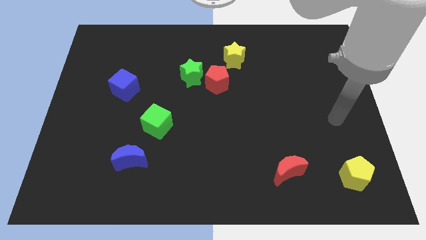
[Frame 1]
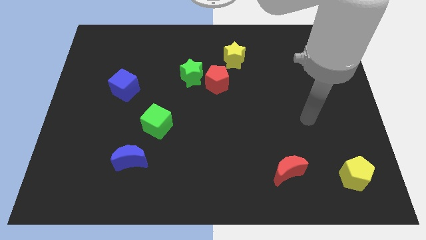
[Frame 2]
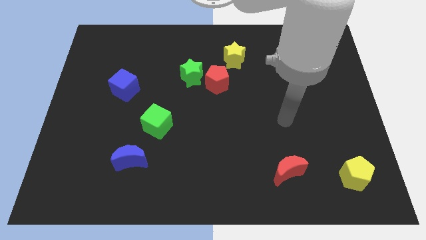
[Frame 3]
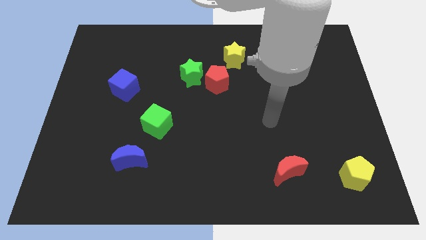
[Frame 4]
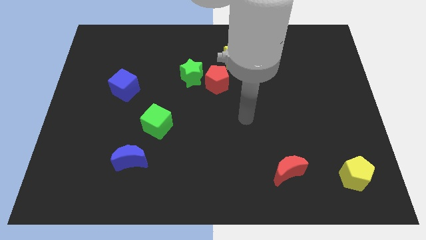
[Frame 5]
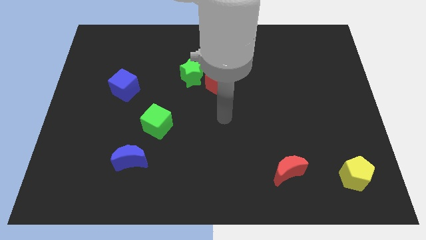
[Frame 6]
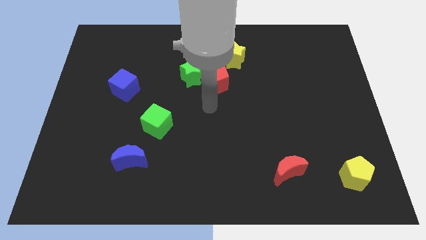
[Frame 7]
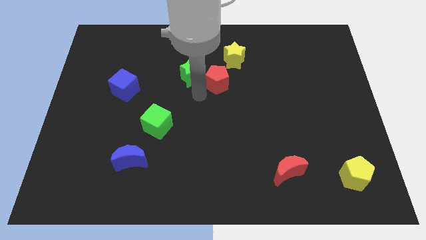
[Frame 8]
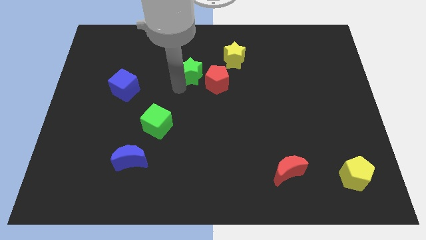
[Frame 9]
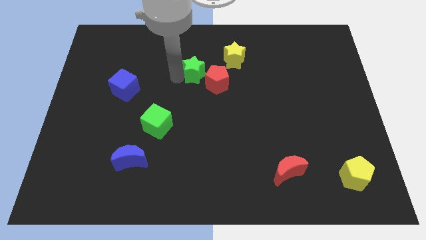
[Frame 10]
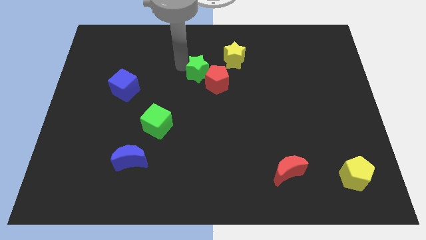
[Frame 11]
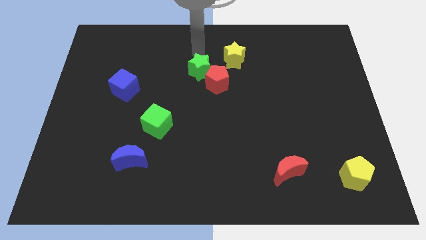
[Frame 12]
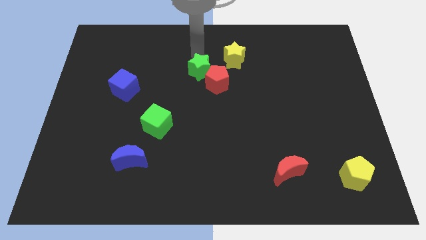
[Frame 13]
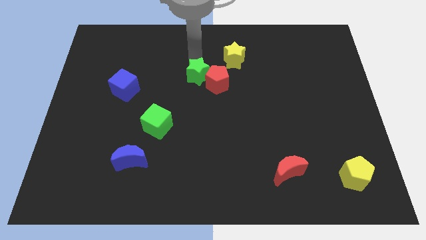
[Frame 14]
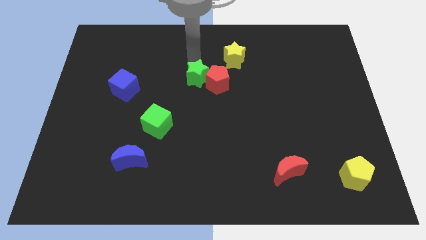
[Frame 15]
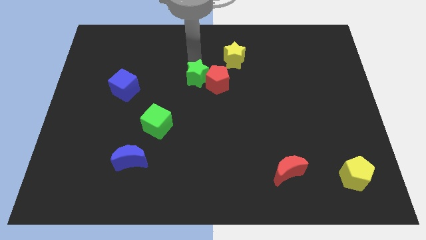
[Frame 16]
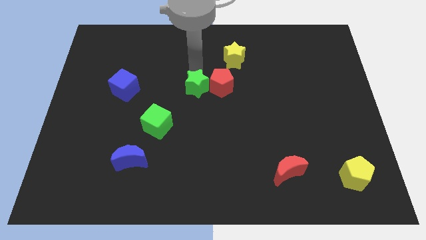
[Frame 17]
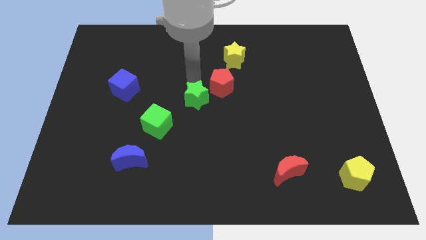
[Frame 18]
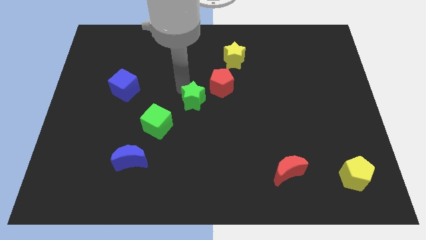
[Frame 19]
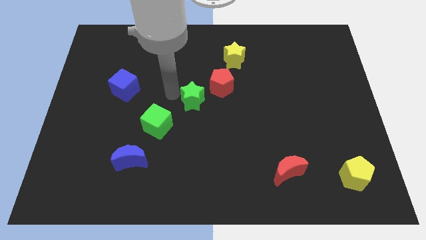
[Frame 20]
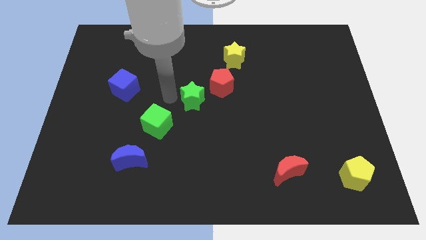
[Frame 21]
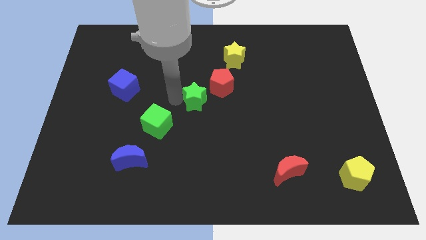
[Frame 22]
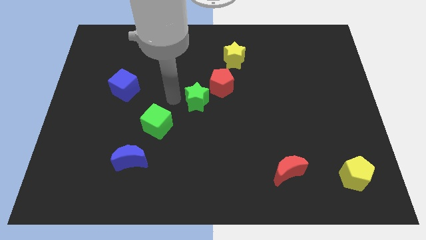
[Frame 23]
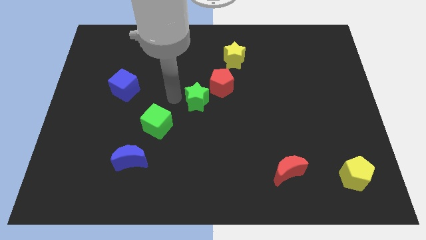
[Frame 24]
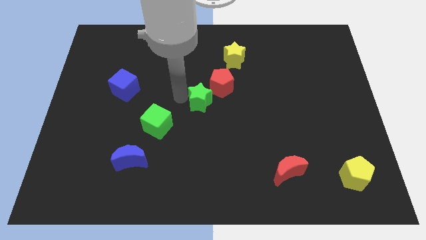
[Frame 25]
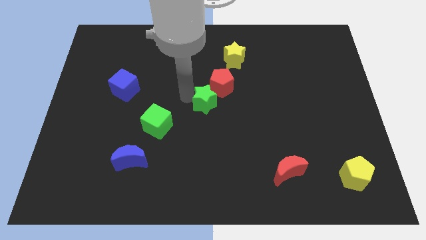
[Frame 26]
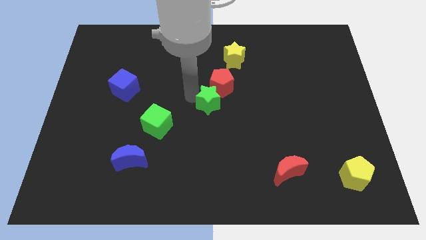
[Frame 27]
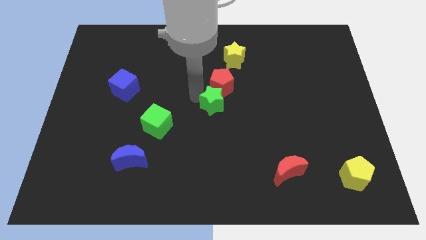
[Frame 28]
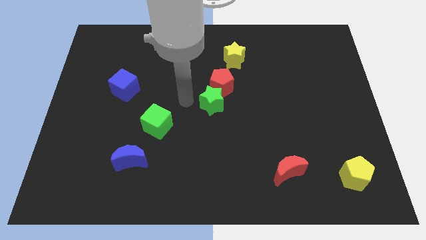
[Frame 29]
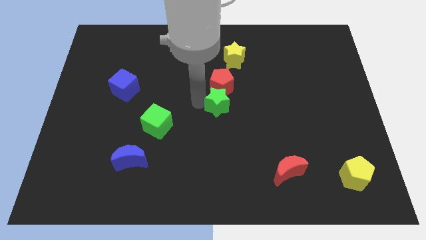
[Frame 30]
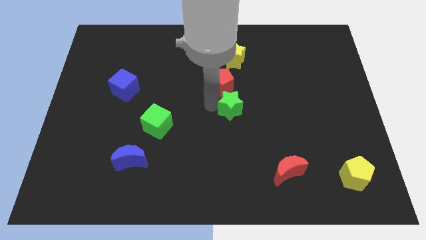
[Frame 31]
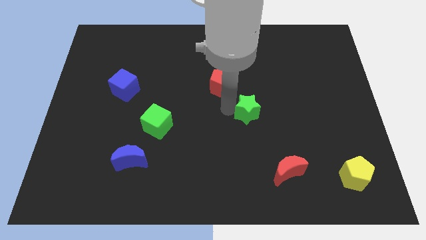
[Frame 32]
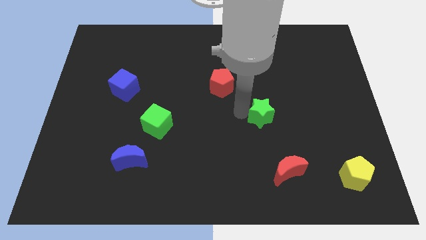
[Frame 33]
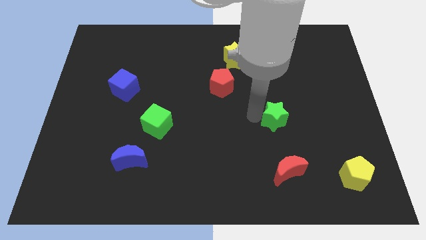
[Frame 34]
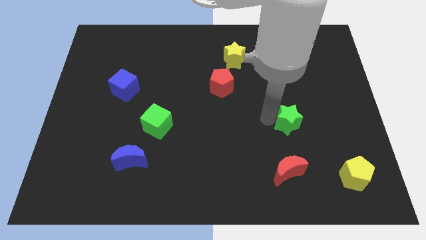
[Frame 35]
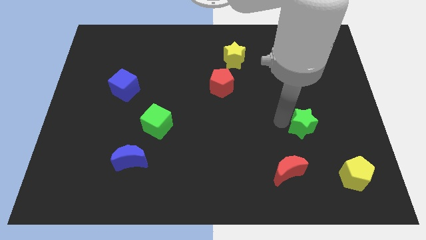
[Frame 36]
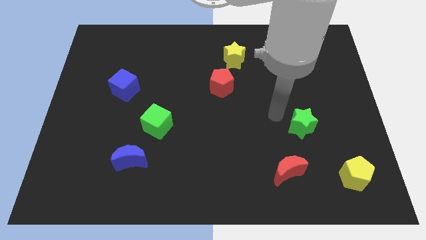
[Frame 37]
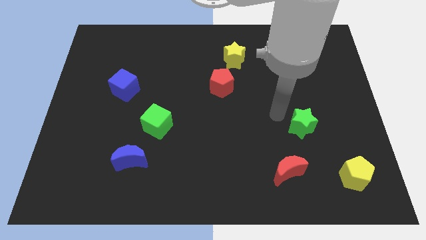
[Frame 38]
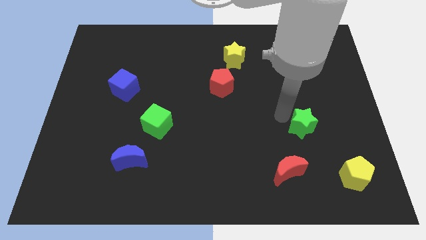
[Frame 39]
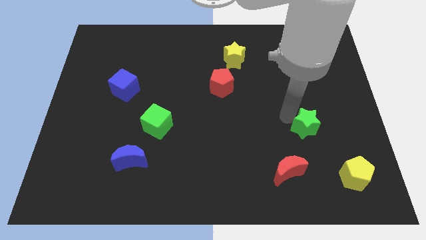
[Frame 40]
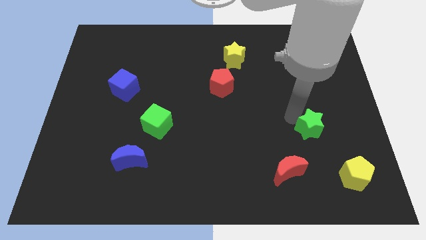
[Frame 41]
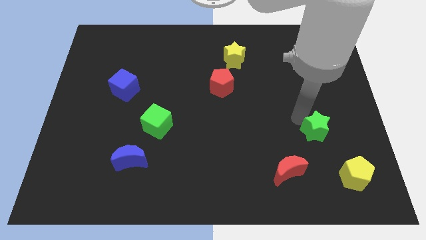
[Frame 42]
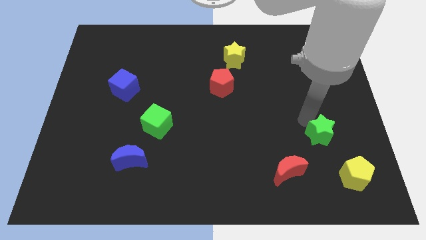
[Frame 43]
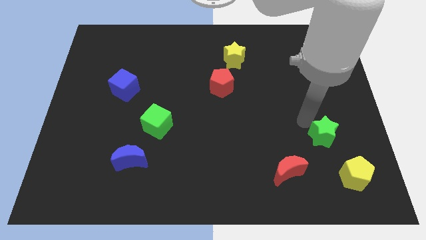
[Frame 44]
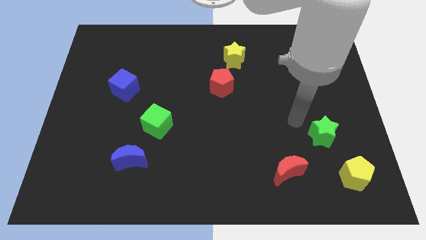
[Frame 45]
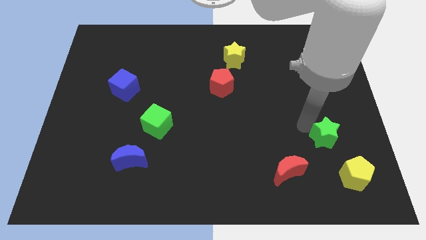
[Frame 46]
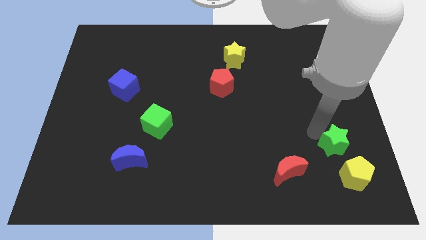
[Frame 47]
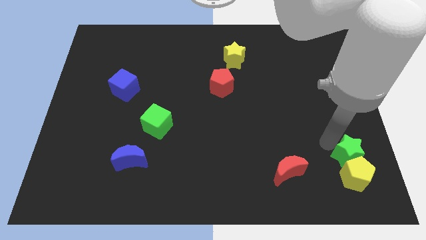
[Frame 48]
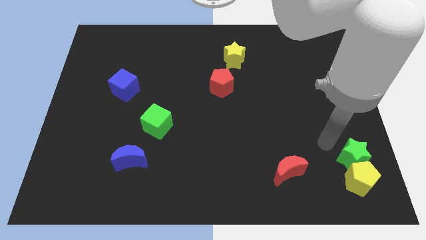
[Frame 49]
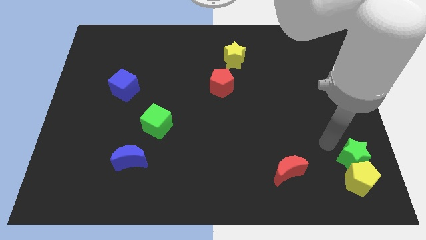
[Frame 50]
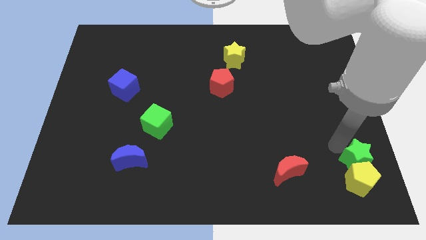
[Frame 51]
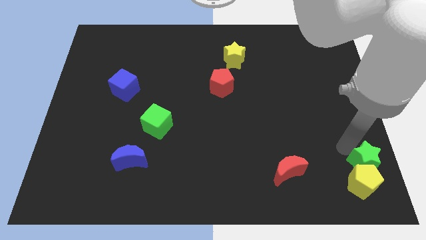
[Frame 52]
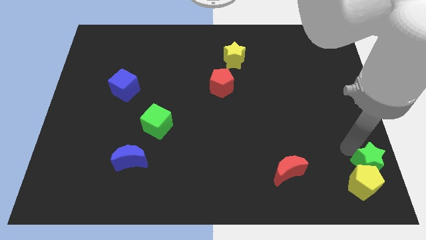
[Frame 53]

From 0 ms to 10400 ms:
move the green star to the bottom right

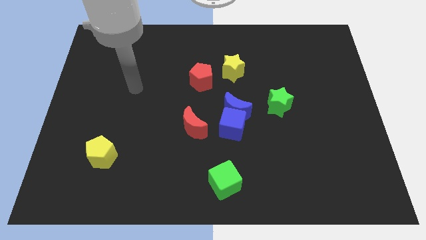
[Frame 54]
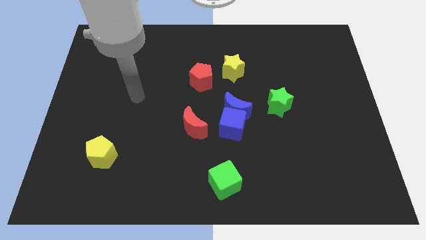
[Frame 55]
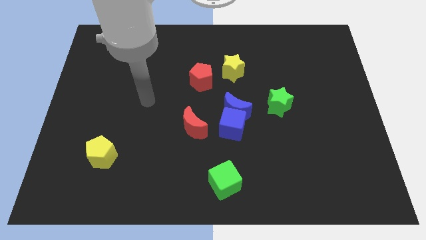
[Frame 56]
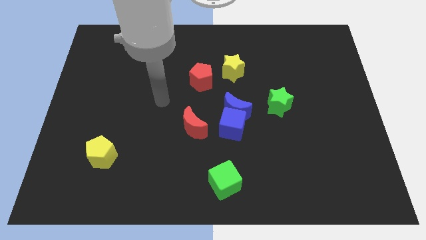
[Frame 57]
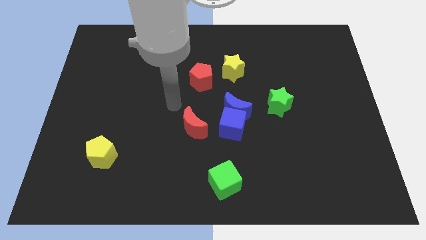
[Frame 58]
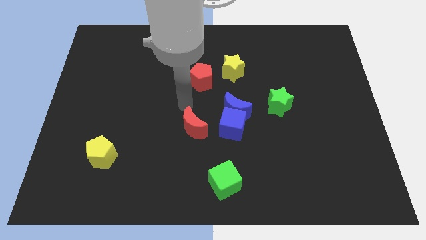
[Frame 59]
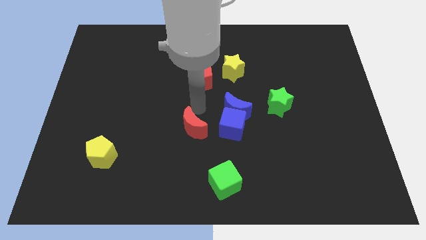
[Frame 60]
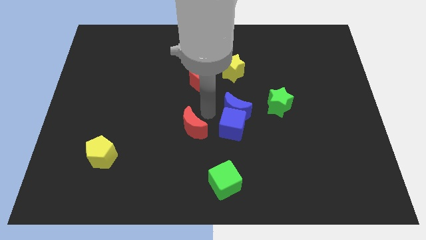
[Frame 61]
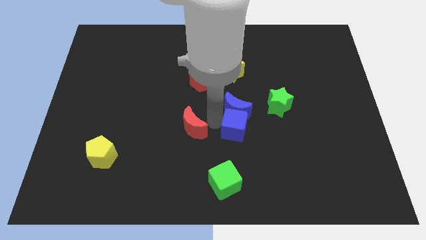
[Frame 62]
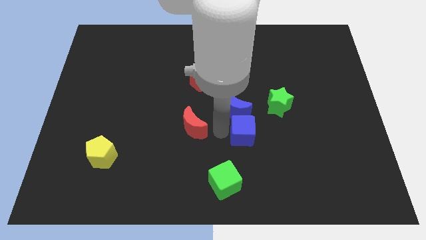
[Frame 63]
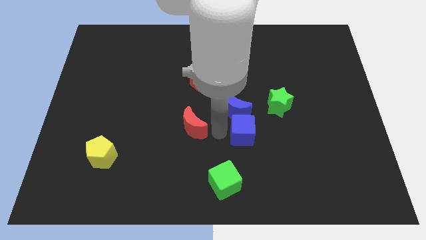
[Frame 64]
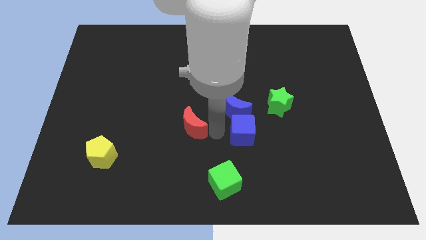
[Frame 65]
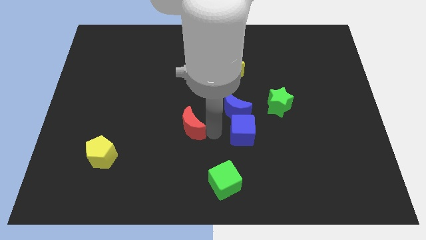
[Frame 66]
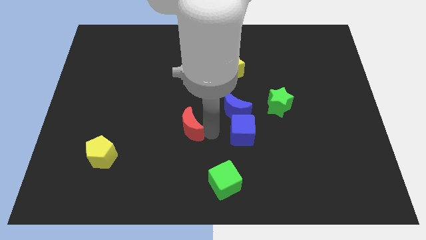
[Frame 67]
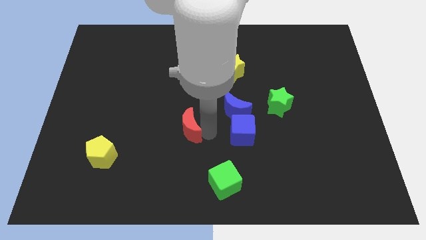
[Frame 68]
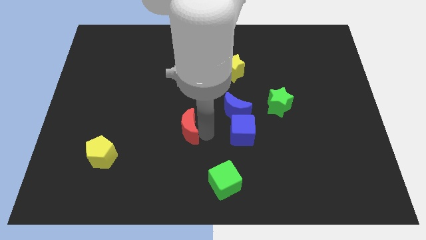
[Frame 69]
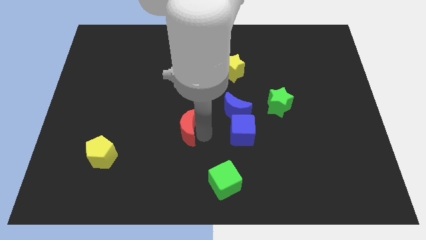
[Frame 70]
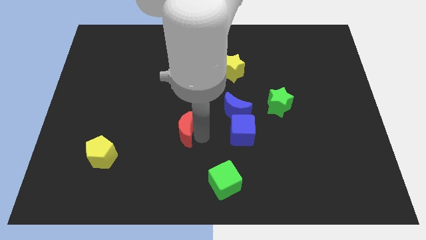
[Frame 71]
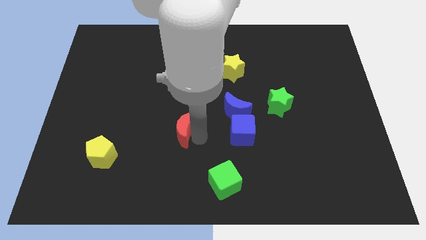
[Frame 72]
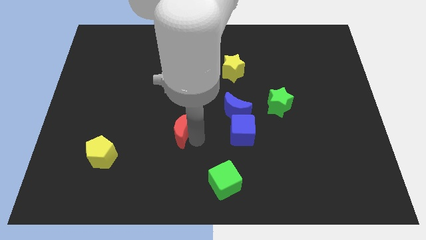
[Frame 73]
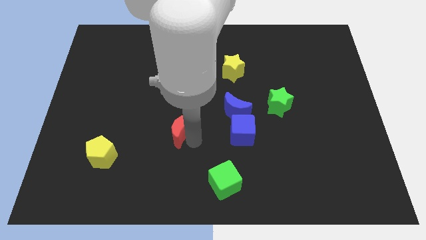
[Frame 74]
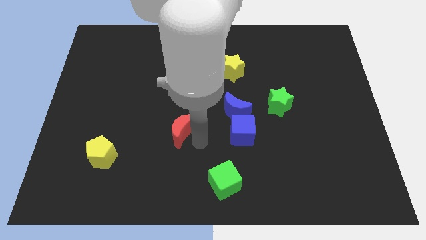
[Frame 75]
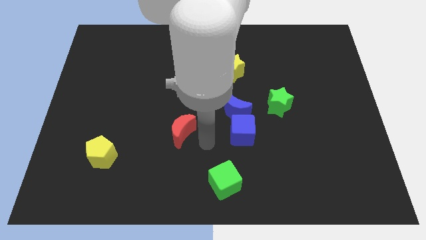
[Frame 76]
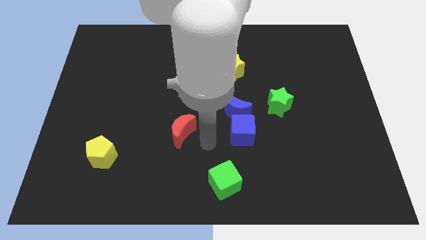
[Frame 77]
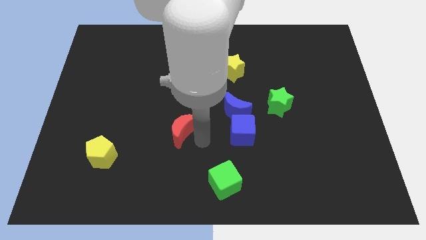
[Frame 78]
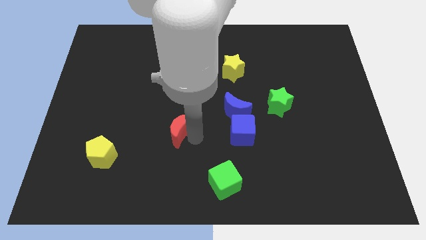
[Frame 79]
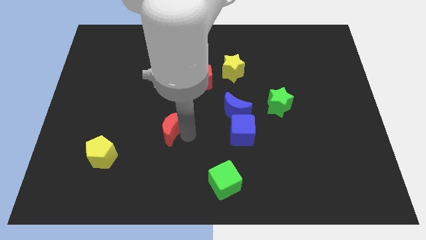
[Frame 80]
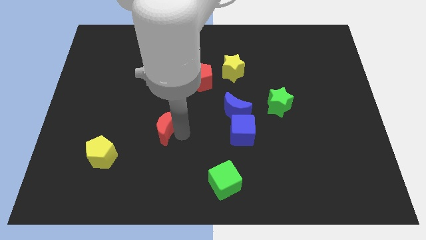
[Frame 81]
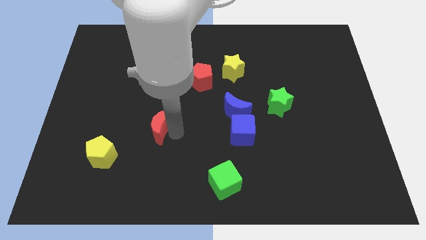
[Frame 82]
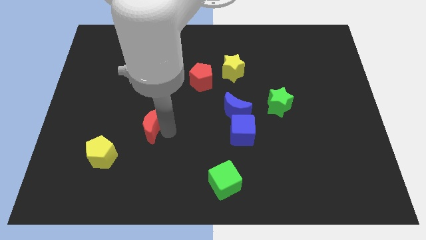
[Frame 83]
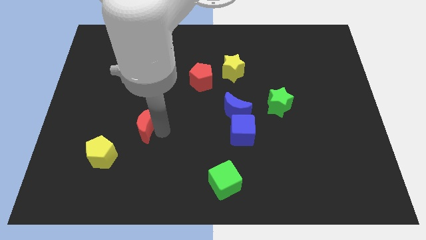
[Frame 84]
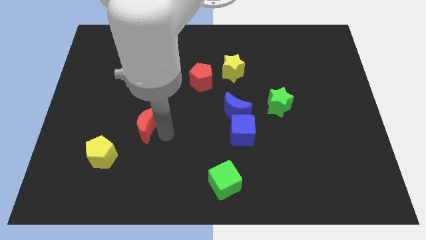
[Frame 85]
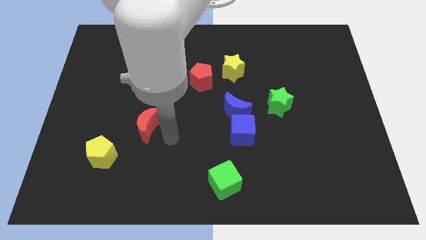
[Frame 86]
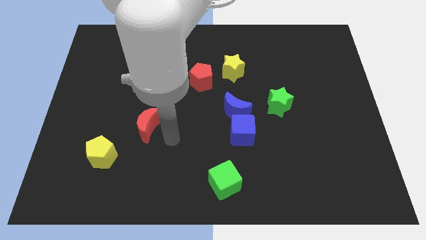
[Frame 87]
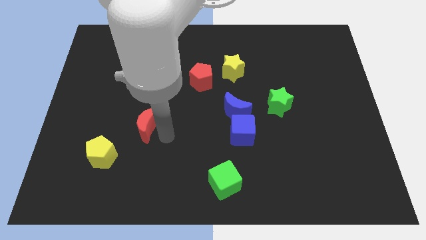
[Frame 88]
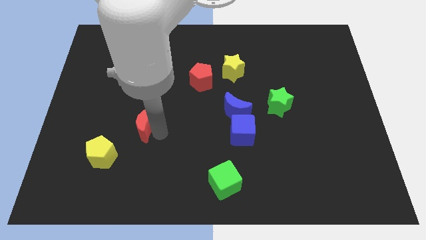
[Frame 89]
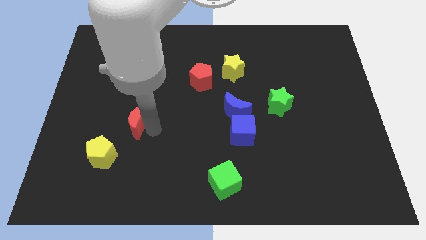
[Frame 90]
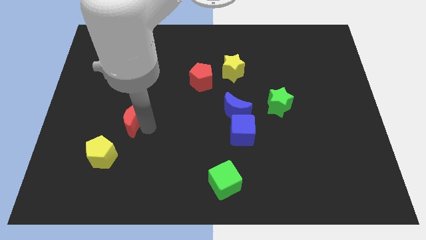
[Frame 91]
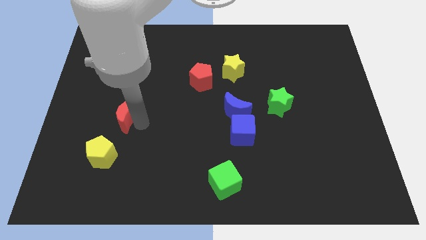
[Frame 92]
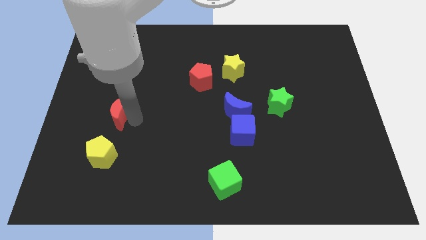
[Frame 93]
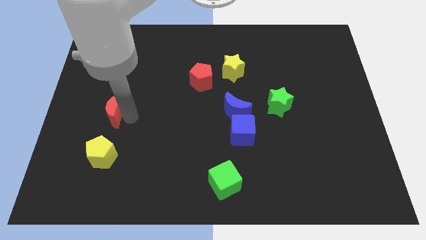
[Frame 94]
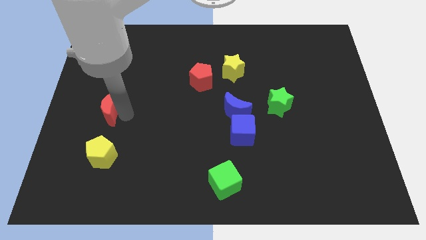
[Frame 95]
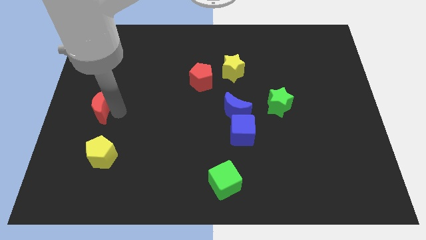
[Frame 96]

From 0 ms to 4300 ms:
move the red moon to the left side
